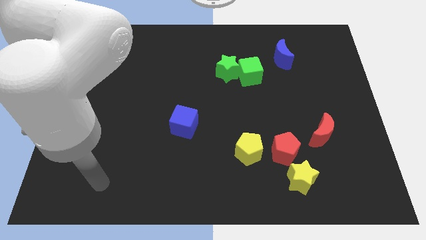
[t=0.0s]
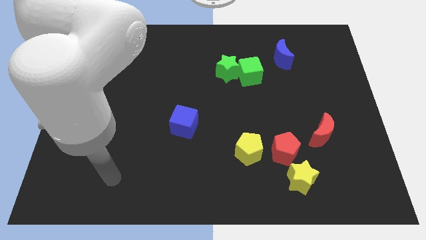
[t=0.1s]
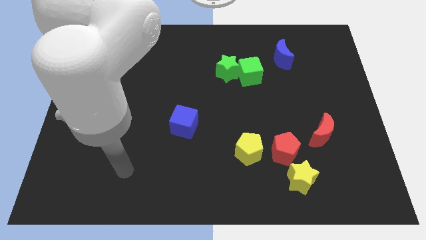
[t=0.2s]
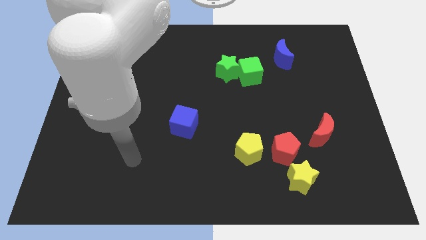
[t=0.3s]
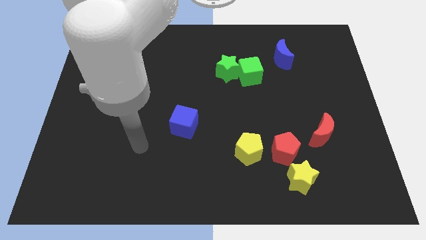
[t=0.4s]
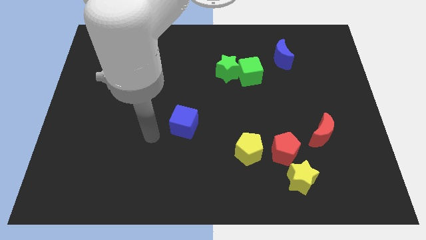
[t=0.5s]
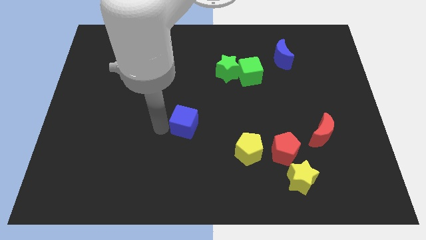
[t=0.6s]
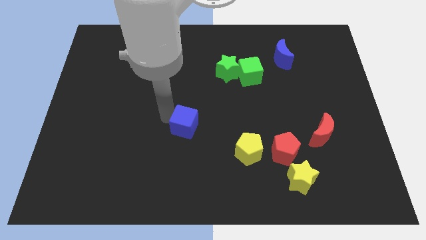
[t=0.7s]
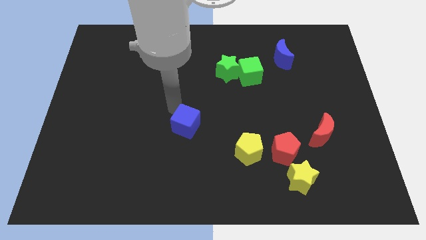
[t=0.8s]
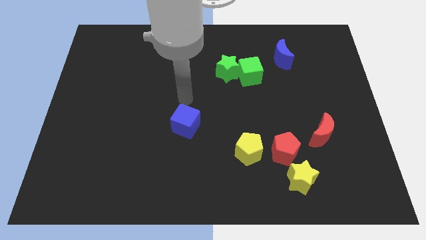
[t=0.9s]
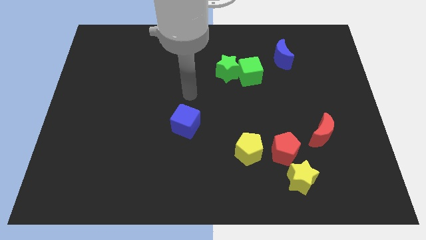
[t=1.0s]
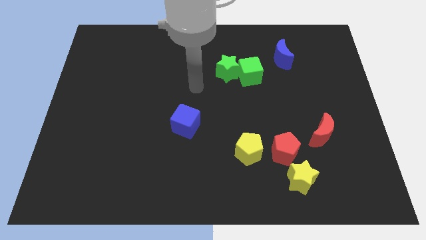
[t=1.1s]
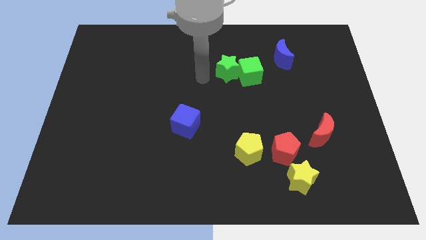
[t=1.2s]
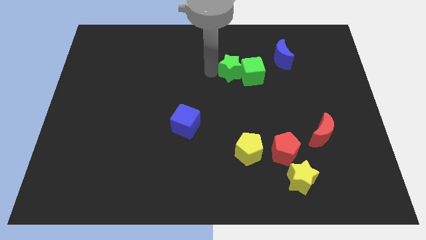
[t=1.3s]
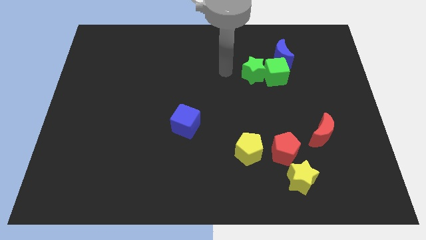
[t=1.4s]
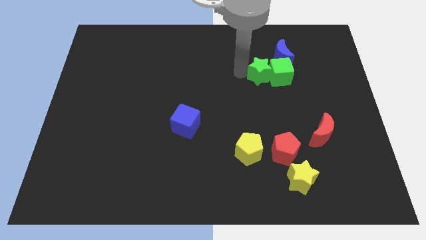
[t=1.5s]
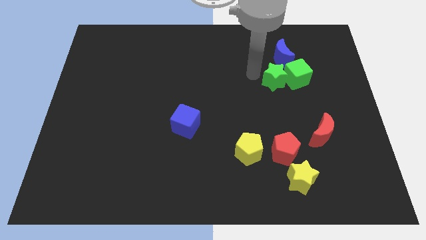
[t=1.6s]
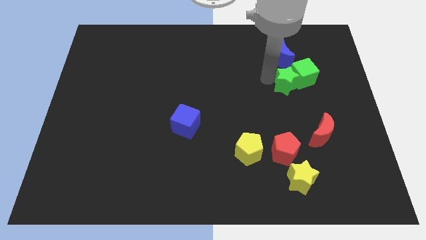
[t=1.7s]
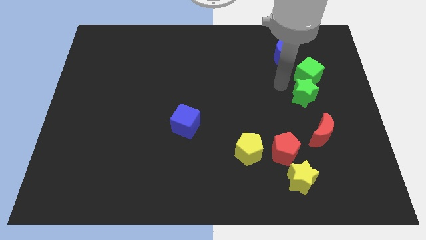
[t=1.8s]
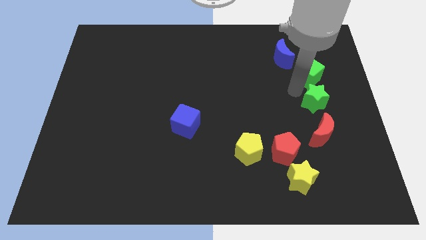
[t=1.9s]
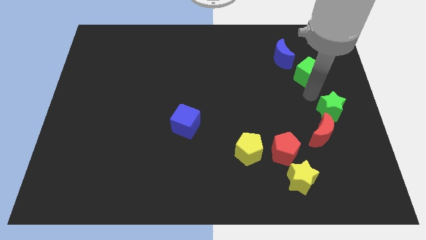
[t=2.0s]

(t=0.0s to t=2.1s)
separate the green cube from the green star

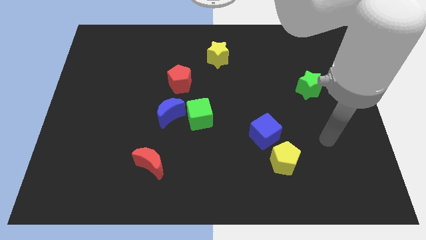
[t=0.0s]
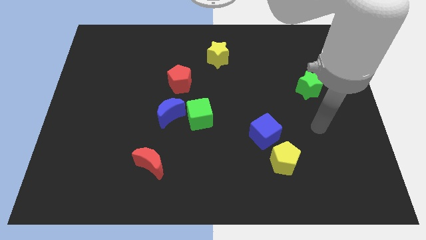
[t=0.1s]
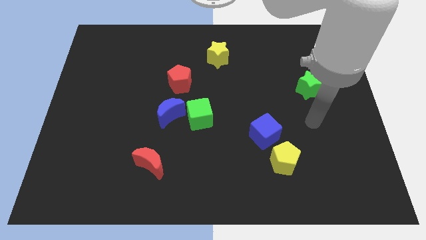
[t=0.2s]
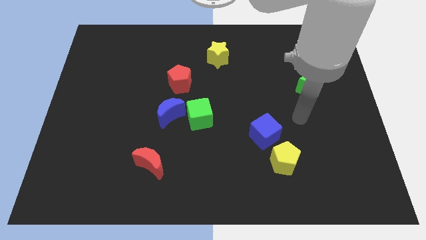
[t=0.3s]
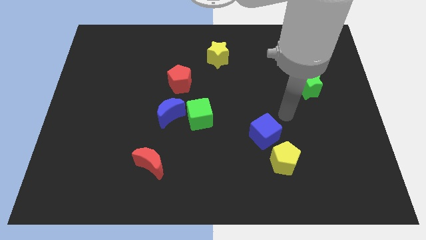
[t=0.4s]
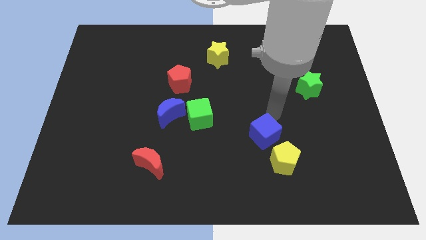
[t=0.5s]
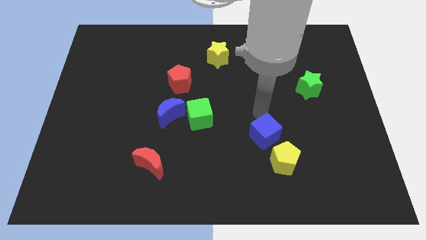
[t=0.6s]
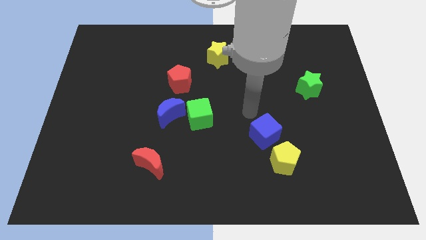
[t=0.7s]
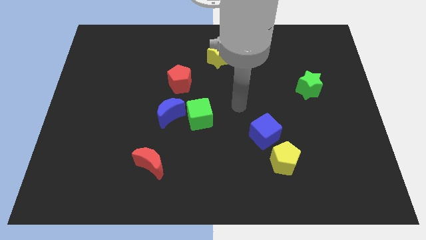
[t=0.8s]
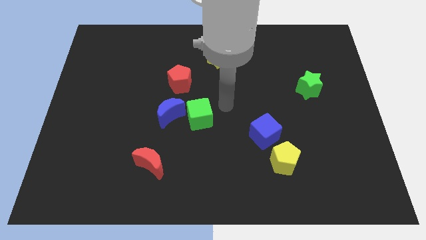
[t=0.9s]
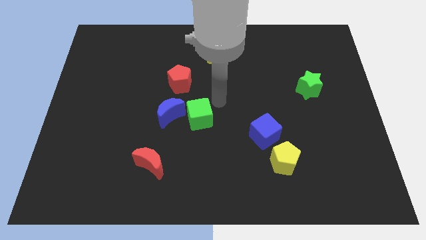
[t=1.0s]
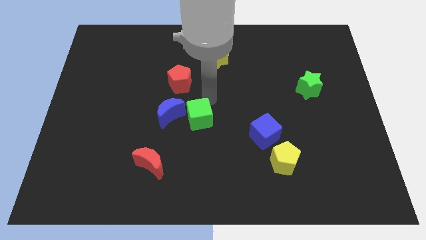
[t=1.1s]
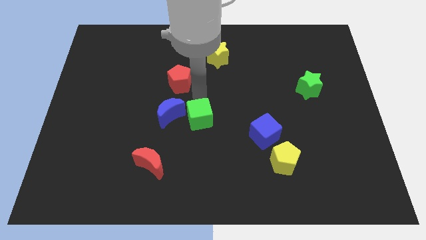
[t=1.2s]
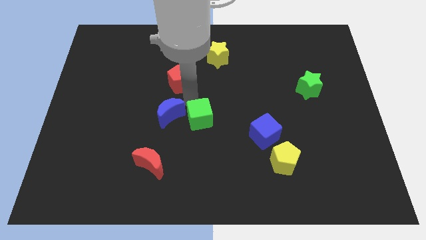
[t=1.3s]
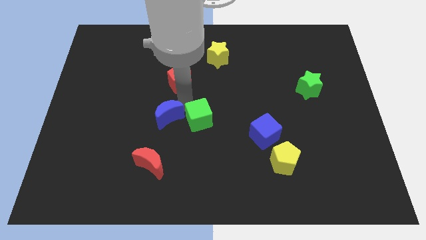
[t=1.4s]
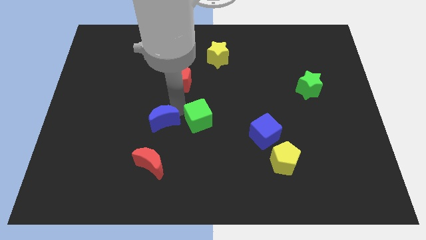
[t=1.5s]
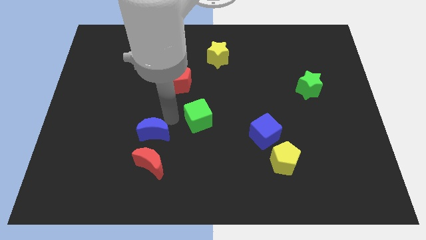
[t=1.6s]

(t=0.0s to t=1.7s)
pull the green cube apart from the blue moon

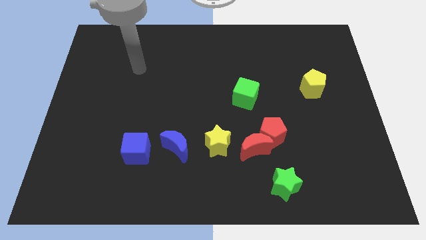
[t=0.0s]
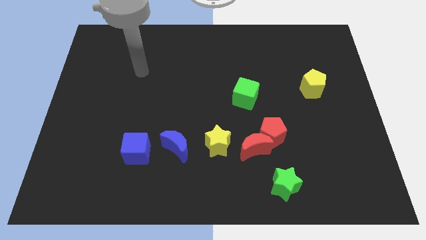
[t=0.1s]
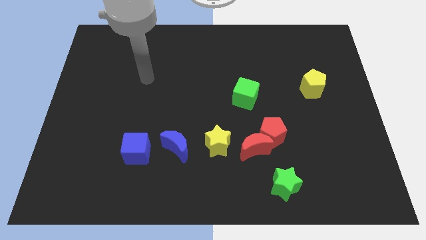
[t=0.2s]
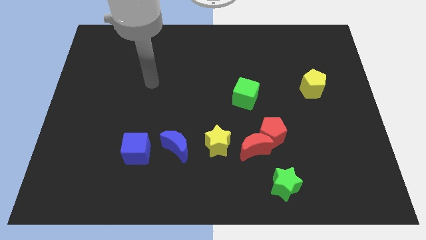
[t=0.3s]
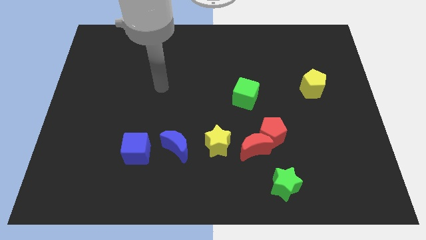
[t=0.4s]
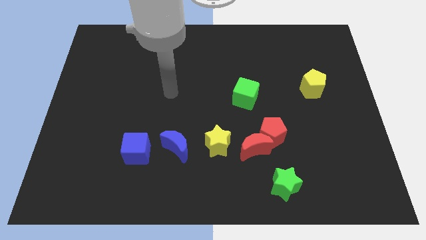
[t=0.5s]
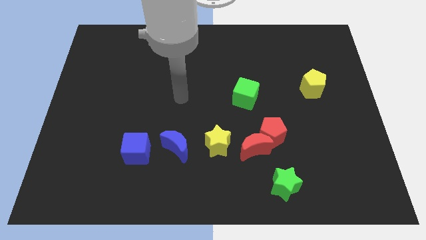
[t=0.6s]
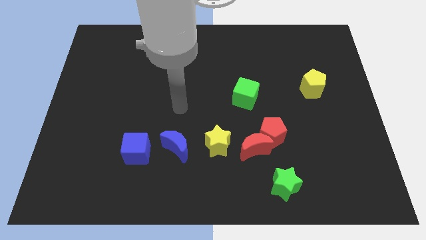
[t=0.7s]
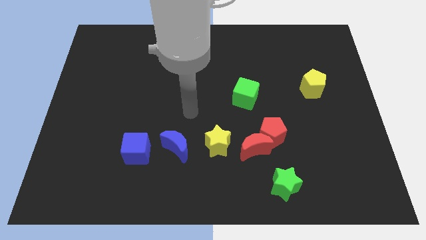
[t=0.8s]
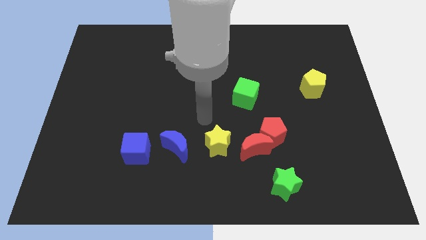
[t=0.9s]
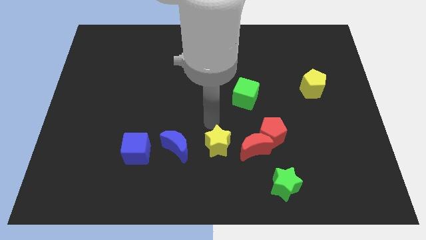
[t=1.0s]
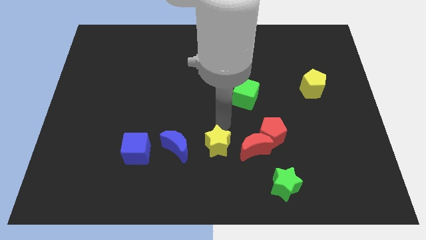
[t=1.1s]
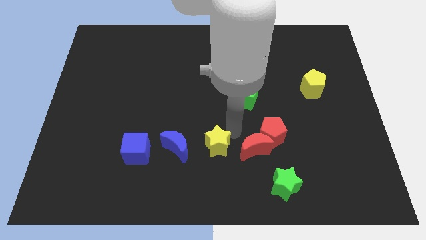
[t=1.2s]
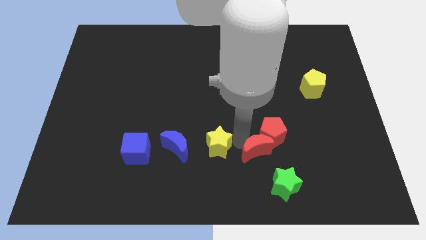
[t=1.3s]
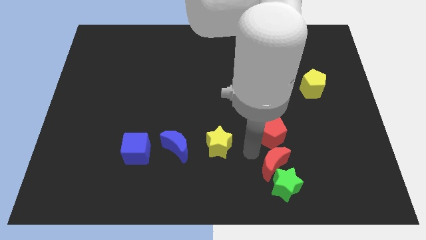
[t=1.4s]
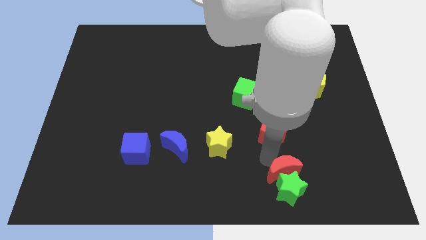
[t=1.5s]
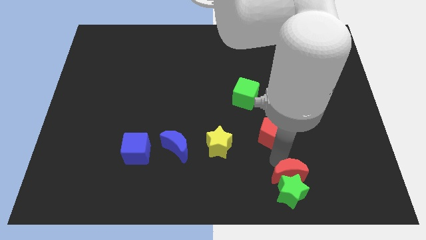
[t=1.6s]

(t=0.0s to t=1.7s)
pull the red pentagon apart from the red moon

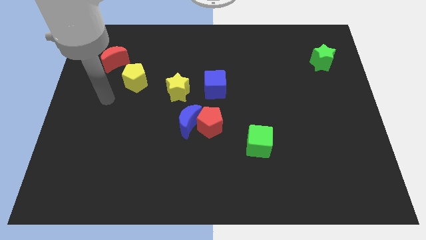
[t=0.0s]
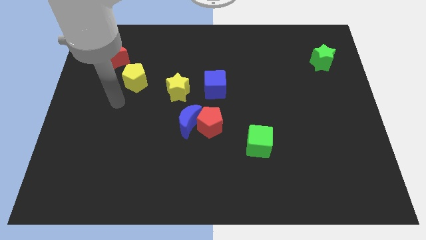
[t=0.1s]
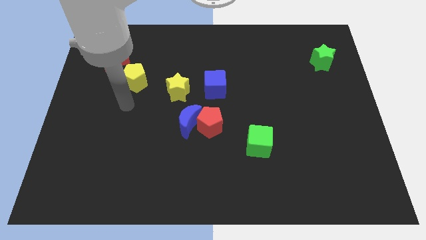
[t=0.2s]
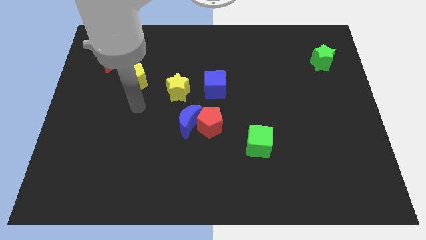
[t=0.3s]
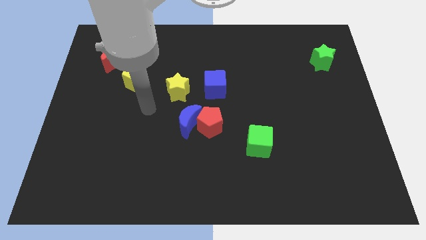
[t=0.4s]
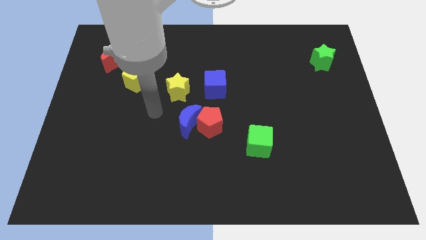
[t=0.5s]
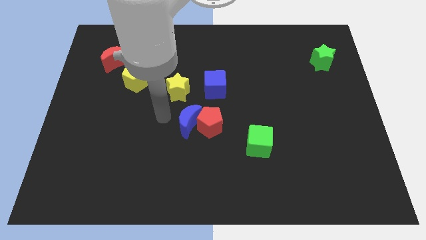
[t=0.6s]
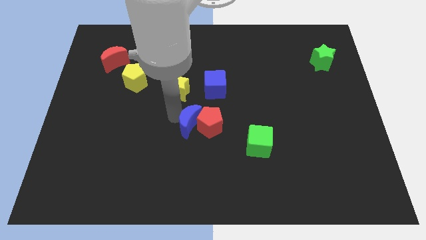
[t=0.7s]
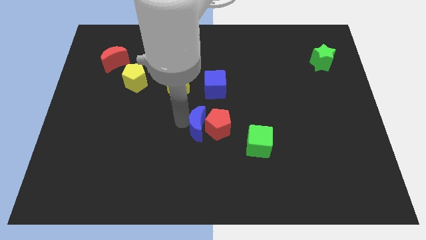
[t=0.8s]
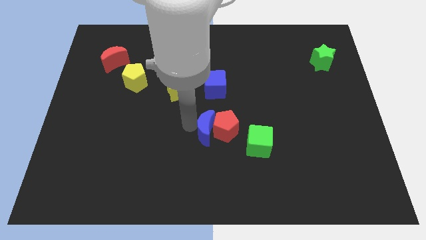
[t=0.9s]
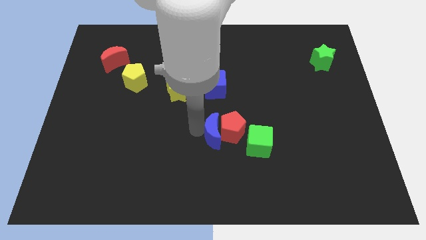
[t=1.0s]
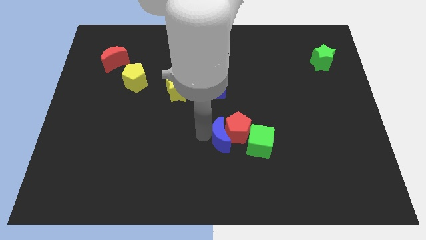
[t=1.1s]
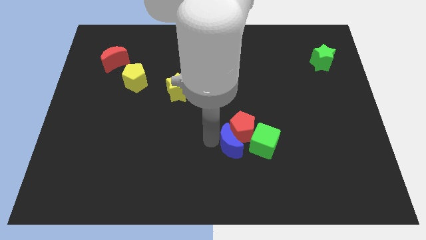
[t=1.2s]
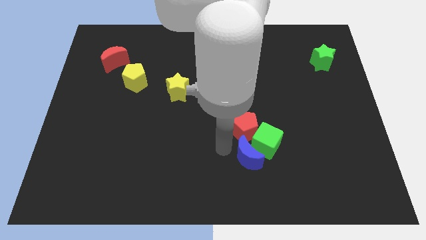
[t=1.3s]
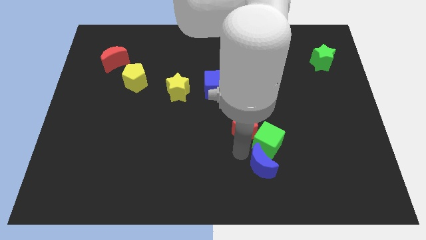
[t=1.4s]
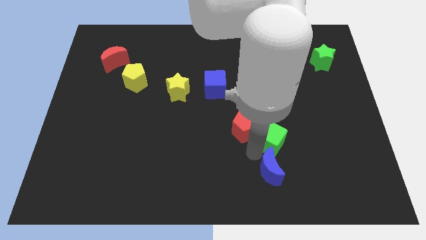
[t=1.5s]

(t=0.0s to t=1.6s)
move the red pentagon away from the blue moon

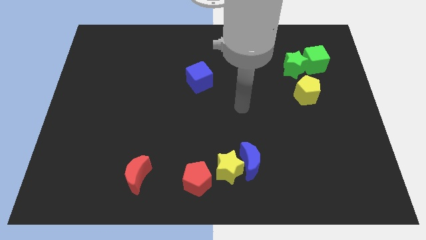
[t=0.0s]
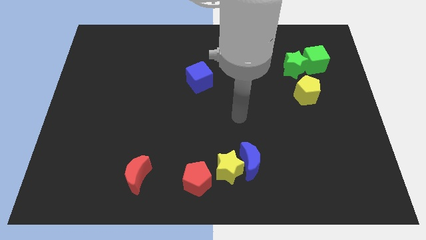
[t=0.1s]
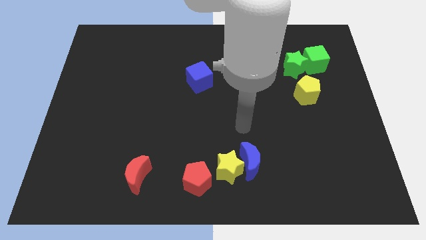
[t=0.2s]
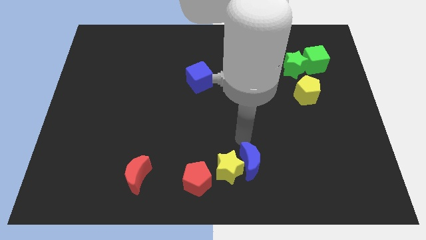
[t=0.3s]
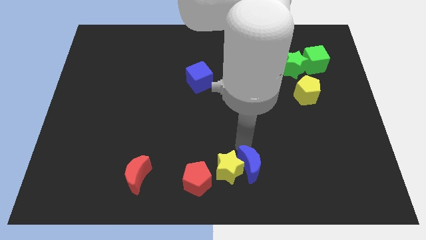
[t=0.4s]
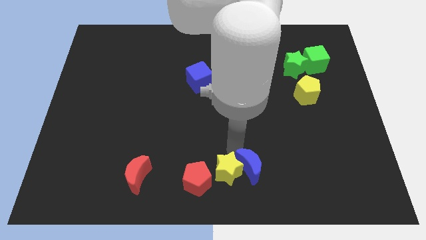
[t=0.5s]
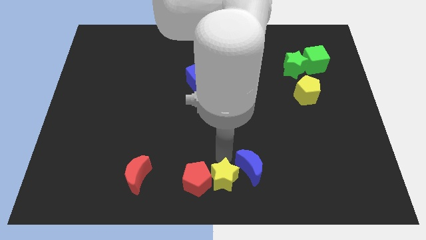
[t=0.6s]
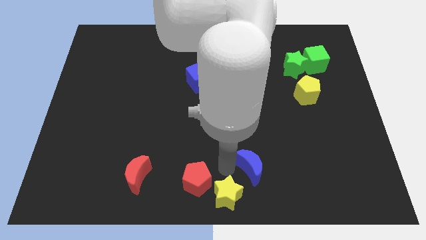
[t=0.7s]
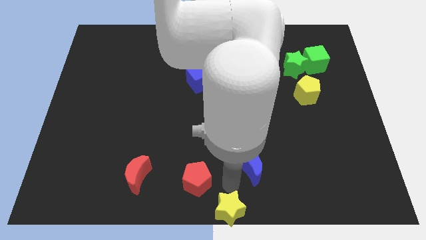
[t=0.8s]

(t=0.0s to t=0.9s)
move the blue moon away from the yellow star

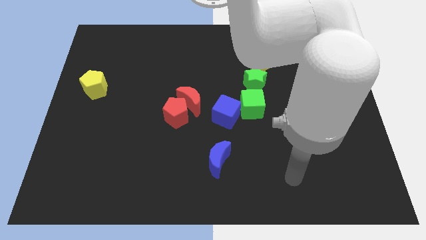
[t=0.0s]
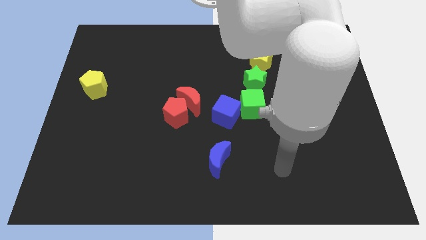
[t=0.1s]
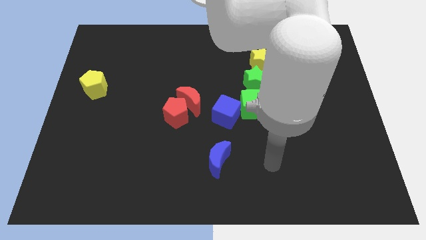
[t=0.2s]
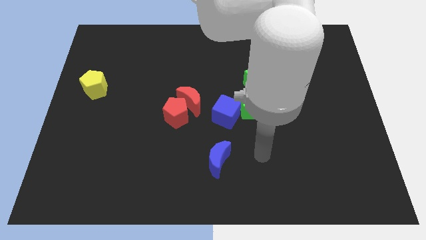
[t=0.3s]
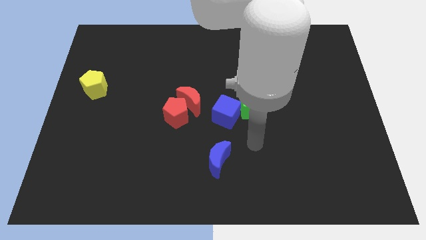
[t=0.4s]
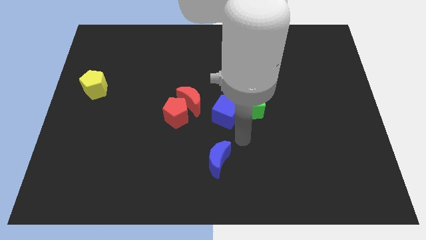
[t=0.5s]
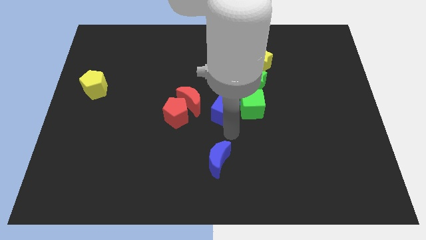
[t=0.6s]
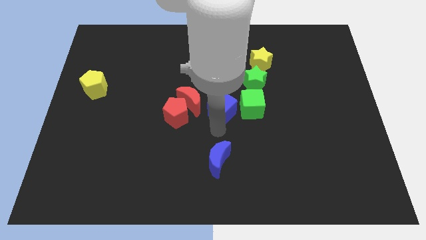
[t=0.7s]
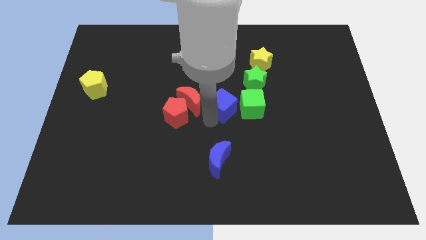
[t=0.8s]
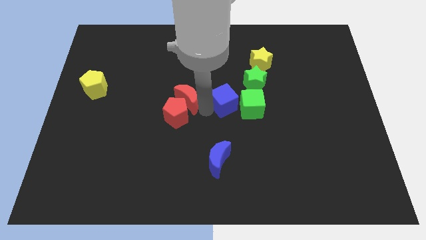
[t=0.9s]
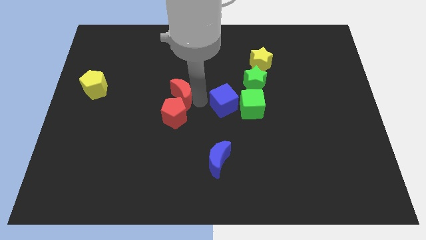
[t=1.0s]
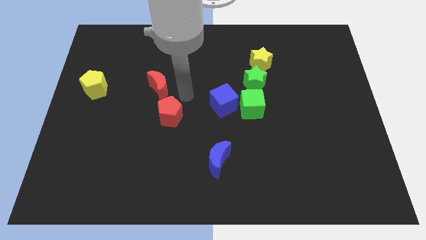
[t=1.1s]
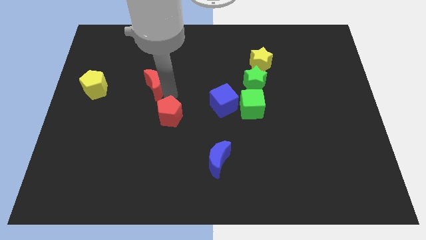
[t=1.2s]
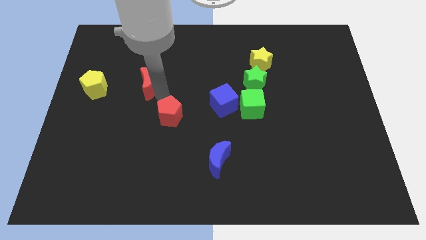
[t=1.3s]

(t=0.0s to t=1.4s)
move the red pentagon away from the red moon
